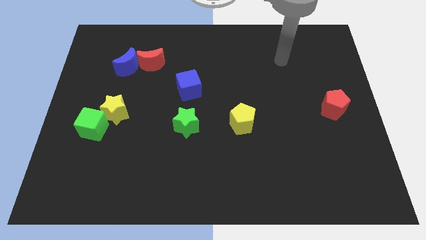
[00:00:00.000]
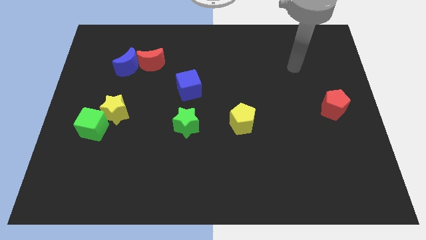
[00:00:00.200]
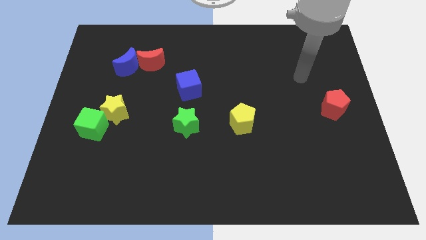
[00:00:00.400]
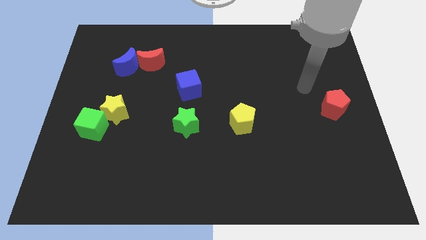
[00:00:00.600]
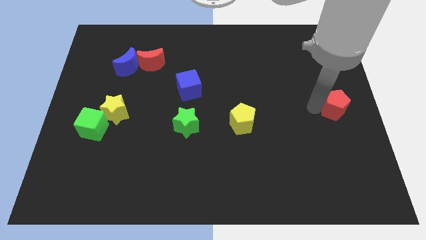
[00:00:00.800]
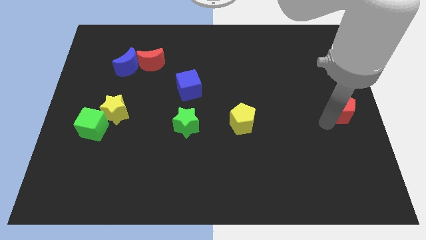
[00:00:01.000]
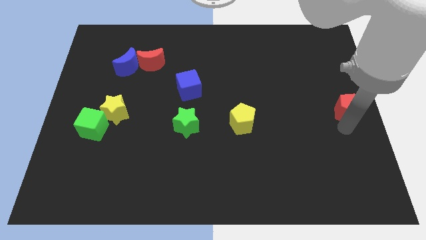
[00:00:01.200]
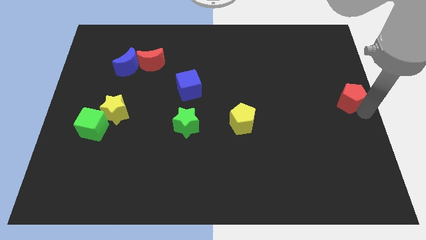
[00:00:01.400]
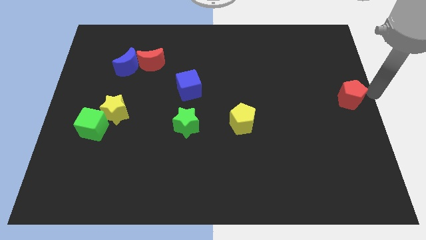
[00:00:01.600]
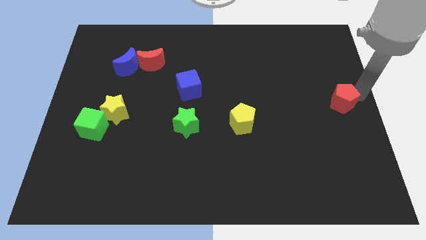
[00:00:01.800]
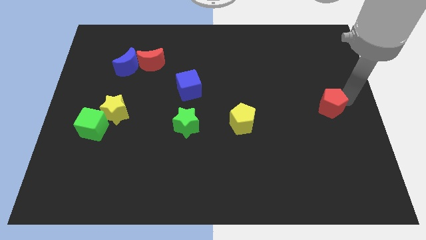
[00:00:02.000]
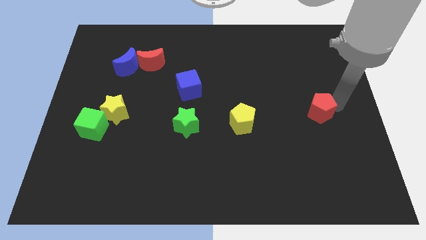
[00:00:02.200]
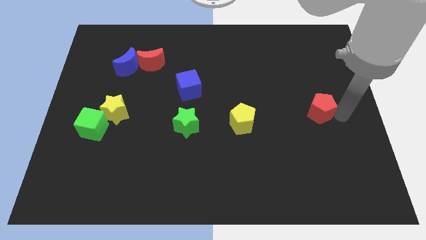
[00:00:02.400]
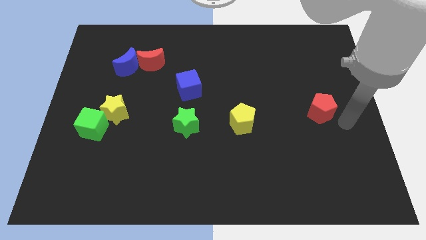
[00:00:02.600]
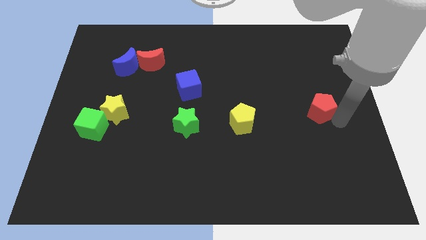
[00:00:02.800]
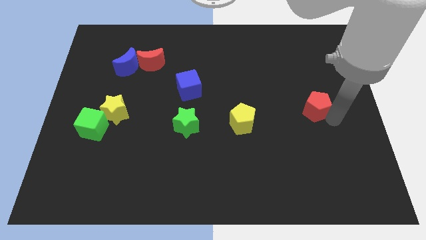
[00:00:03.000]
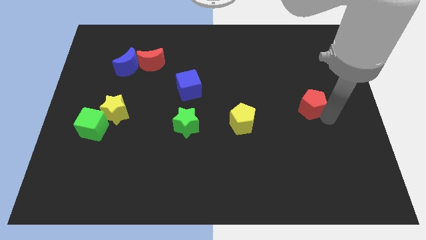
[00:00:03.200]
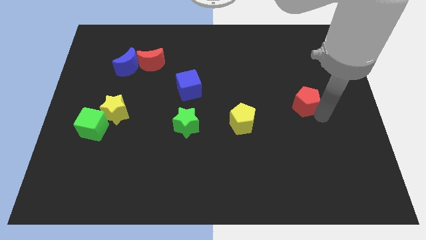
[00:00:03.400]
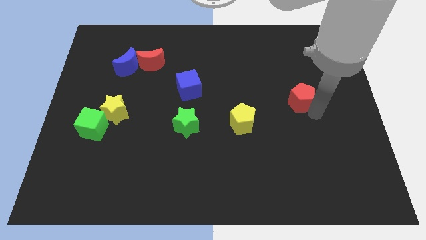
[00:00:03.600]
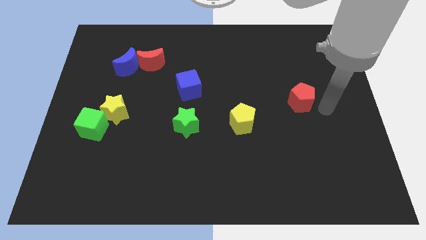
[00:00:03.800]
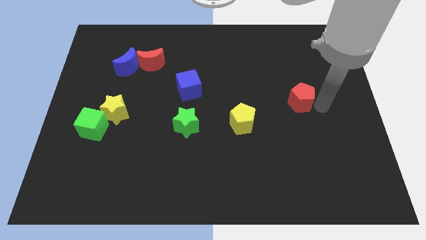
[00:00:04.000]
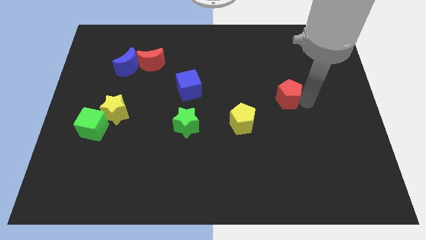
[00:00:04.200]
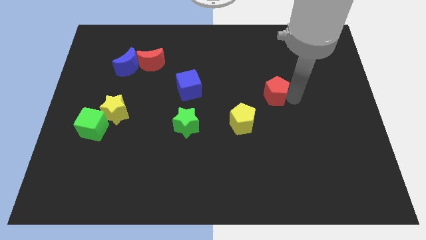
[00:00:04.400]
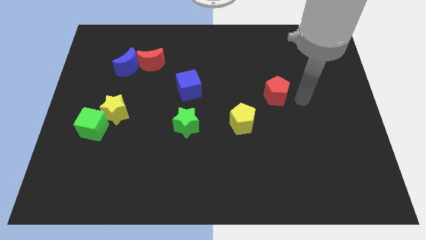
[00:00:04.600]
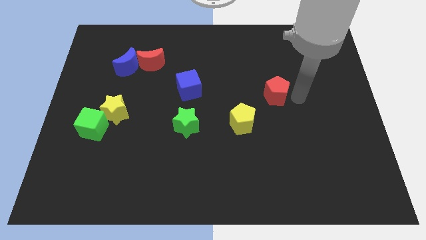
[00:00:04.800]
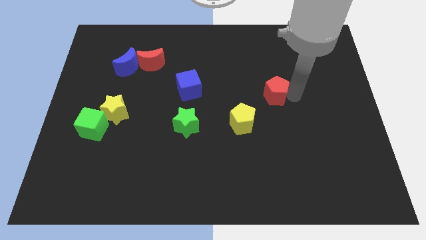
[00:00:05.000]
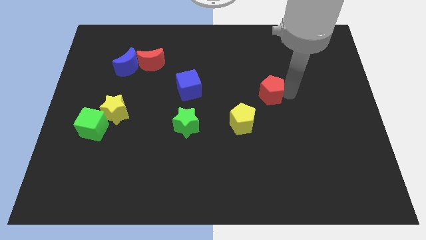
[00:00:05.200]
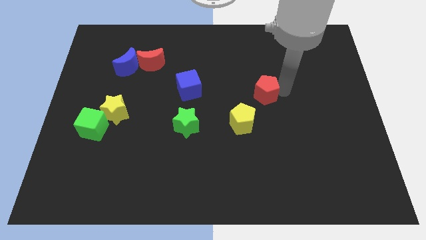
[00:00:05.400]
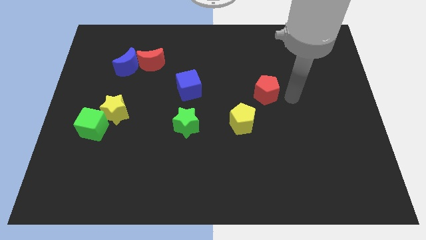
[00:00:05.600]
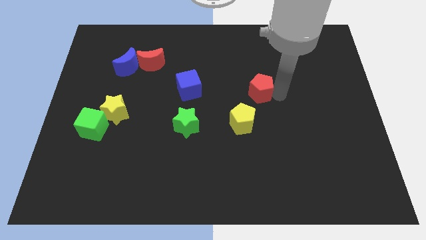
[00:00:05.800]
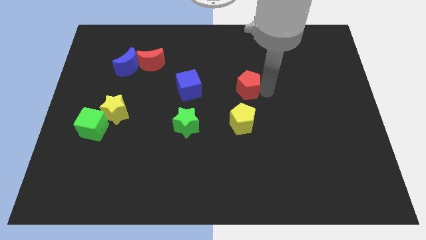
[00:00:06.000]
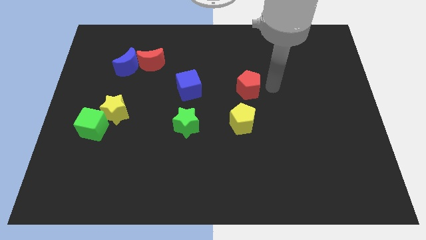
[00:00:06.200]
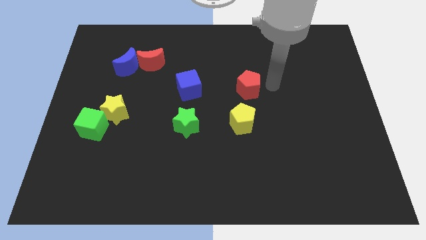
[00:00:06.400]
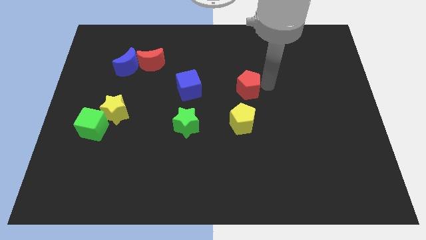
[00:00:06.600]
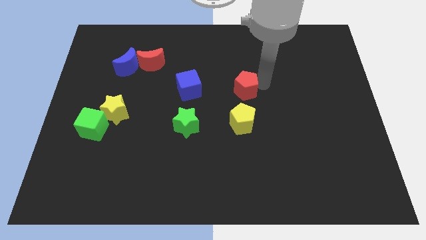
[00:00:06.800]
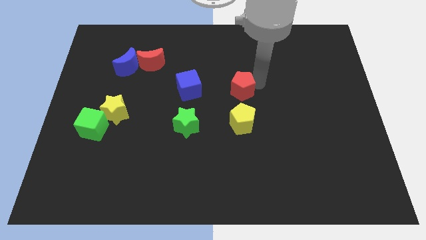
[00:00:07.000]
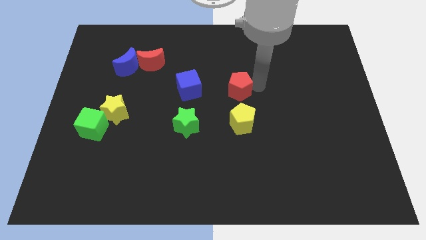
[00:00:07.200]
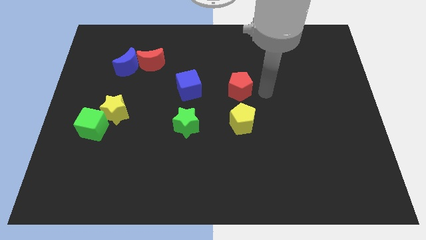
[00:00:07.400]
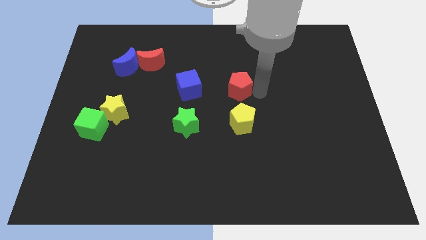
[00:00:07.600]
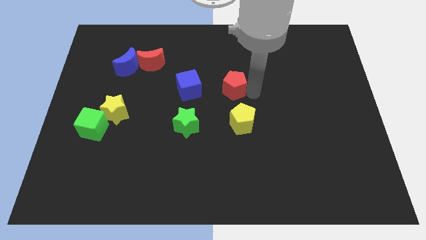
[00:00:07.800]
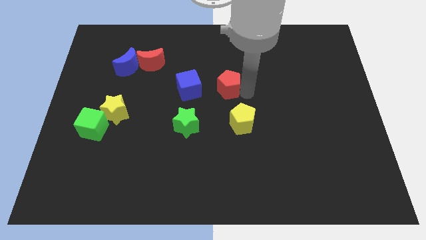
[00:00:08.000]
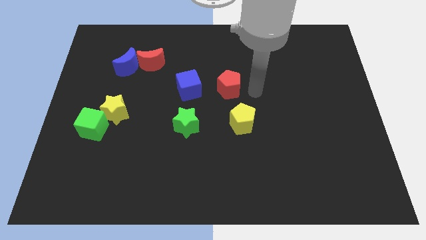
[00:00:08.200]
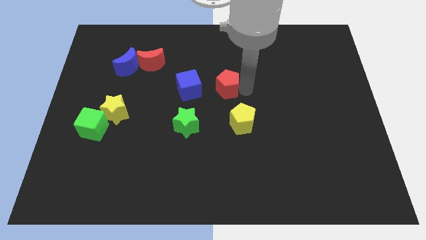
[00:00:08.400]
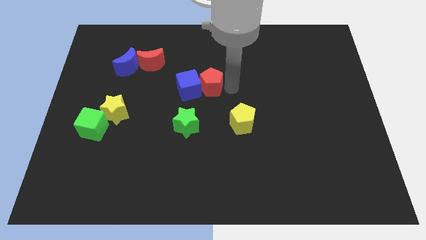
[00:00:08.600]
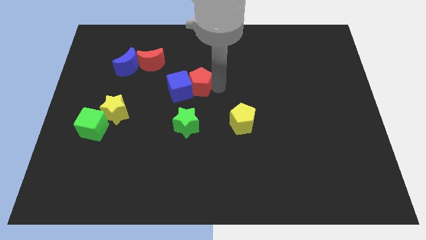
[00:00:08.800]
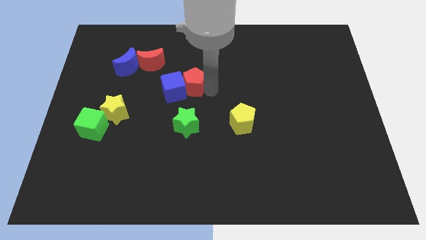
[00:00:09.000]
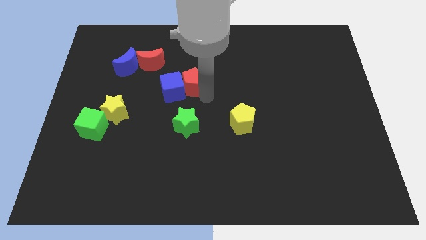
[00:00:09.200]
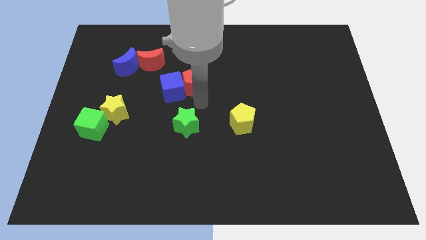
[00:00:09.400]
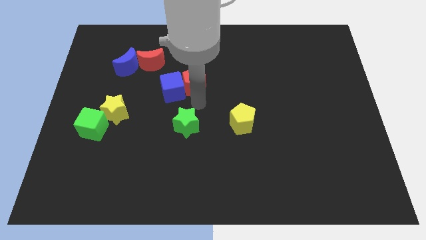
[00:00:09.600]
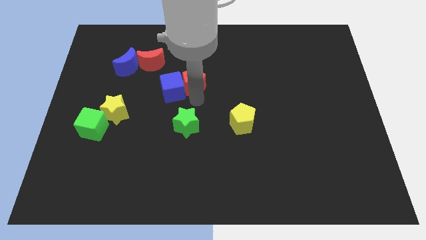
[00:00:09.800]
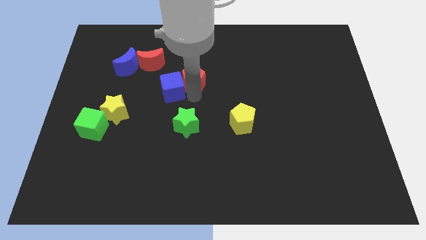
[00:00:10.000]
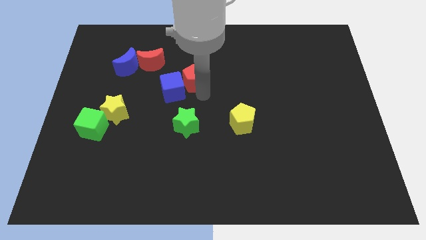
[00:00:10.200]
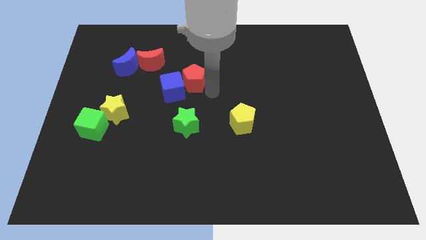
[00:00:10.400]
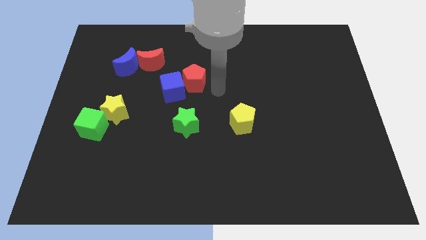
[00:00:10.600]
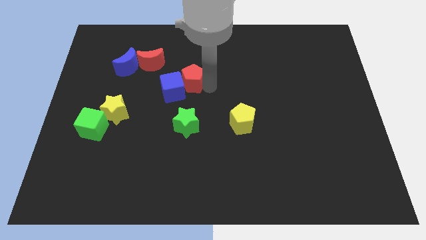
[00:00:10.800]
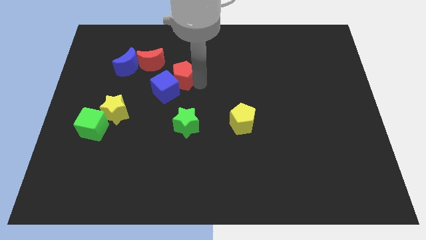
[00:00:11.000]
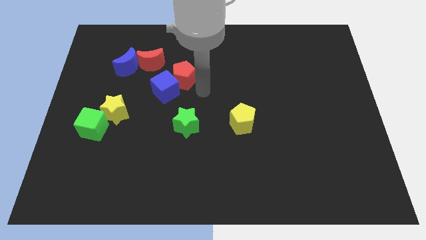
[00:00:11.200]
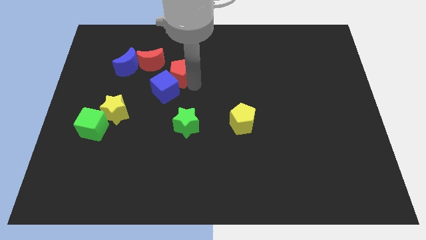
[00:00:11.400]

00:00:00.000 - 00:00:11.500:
move the red pentagon just right of the blue moon

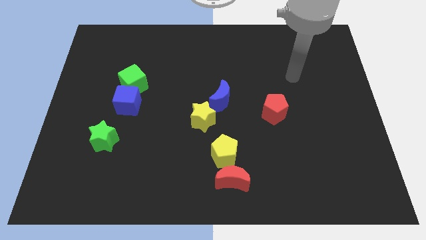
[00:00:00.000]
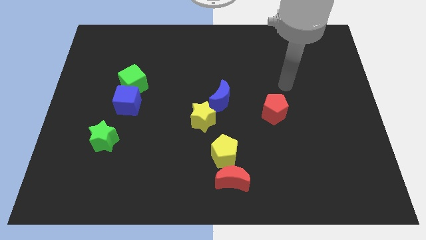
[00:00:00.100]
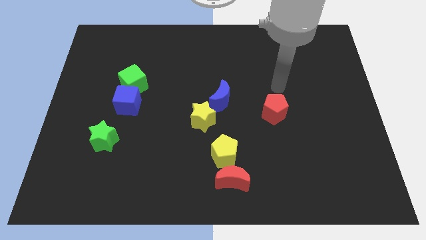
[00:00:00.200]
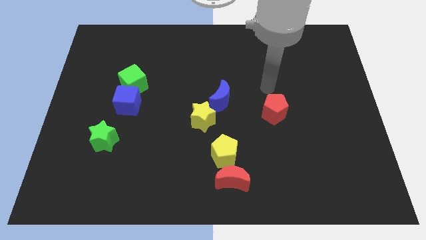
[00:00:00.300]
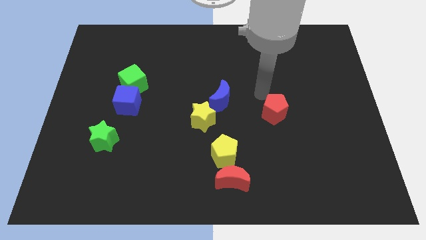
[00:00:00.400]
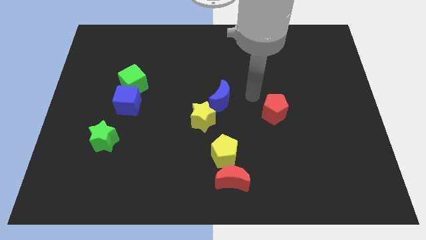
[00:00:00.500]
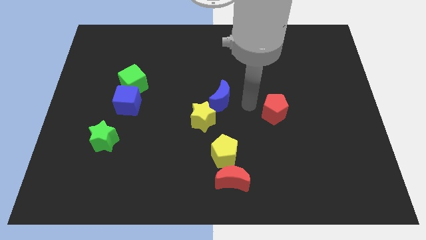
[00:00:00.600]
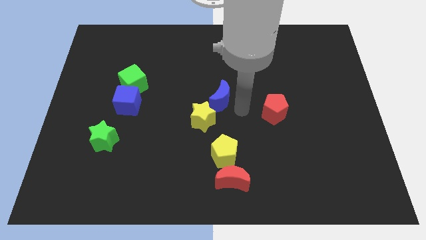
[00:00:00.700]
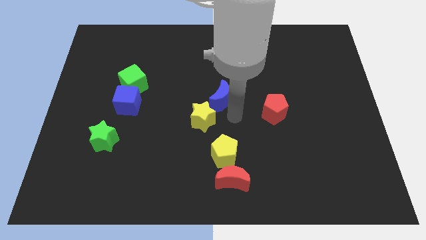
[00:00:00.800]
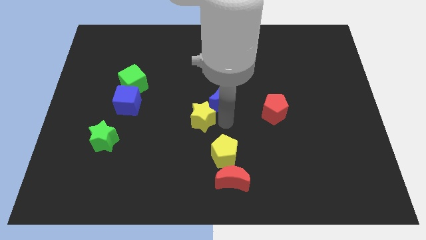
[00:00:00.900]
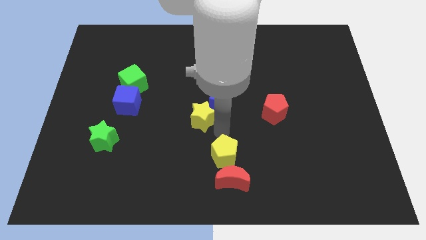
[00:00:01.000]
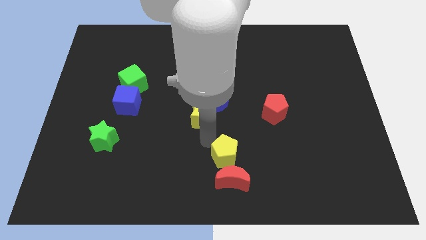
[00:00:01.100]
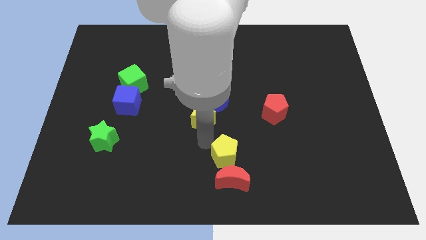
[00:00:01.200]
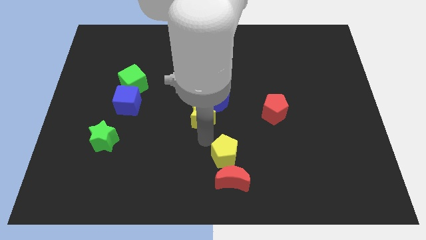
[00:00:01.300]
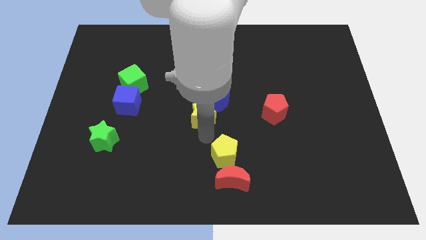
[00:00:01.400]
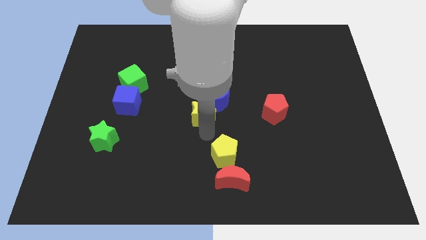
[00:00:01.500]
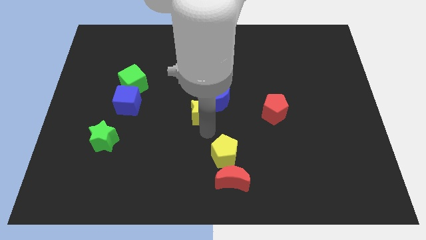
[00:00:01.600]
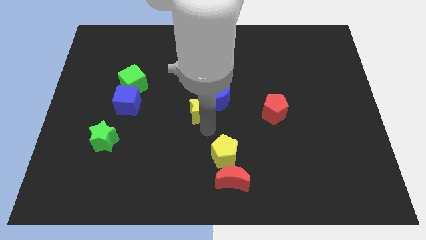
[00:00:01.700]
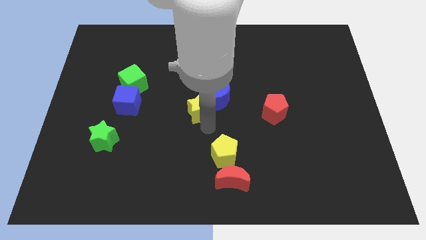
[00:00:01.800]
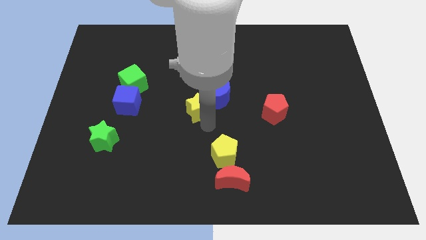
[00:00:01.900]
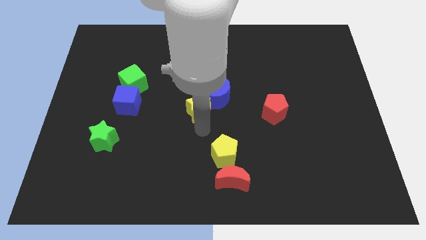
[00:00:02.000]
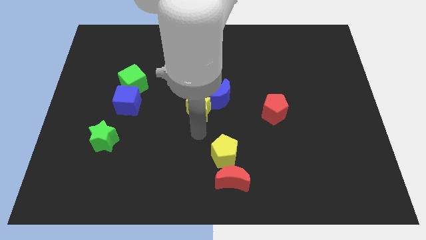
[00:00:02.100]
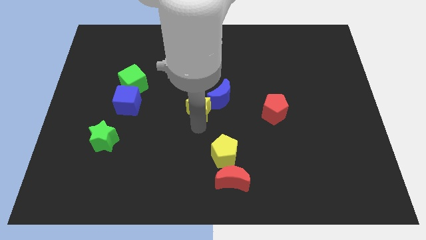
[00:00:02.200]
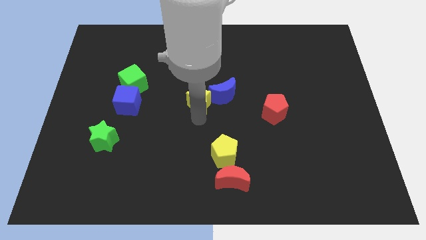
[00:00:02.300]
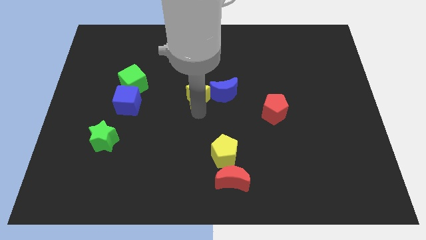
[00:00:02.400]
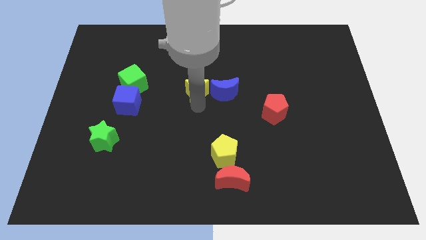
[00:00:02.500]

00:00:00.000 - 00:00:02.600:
move the yellow star to the top left of the blue moon

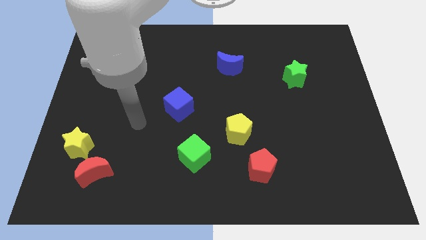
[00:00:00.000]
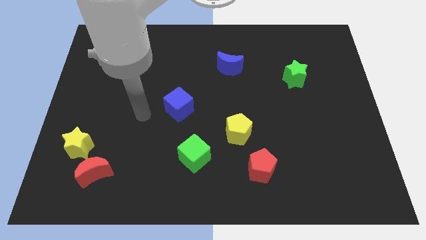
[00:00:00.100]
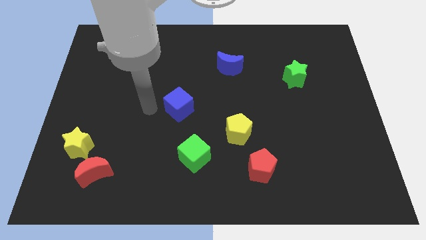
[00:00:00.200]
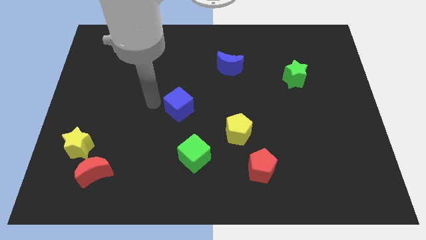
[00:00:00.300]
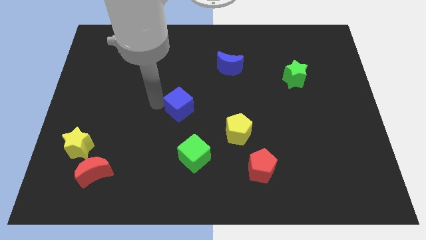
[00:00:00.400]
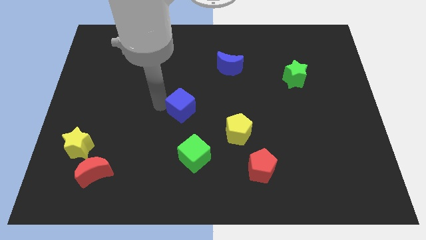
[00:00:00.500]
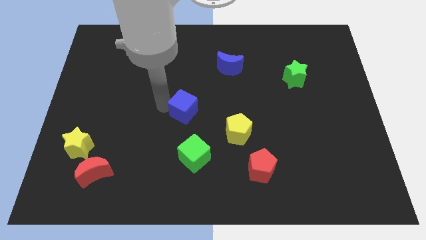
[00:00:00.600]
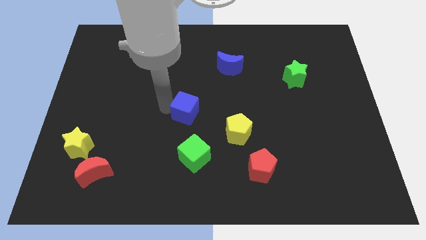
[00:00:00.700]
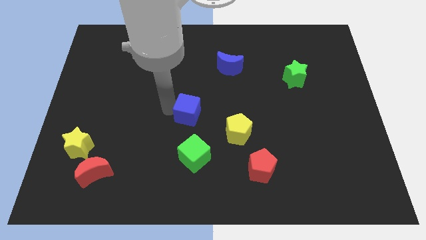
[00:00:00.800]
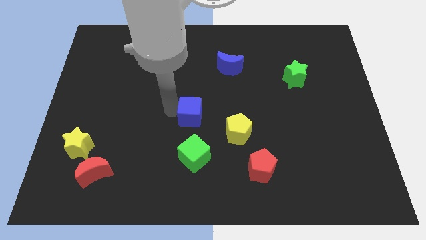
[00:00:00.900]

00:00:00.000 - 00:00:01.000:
slide the blue cube to the top left of the yellow pentagon
